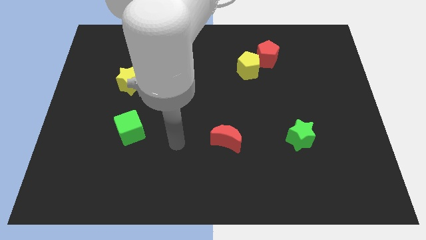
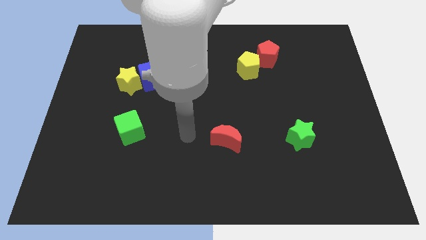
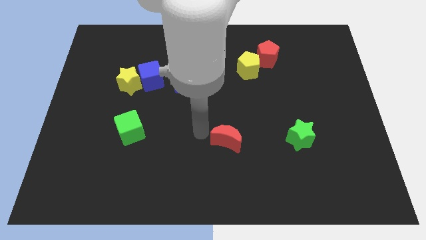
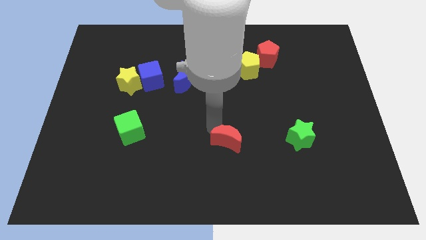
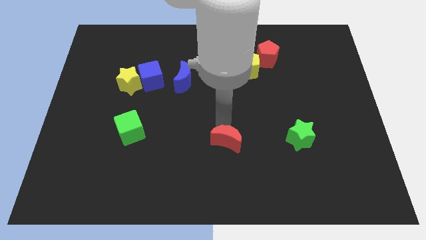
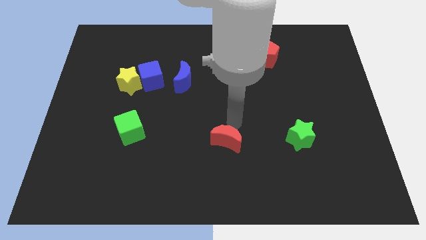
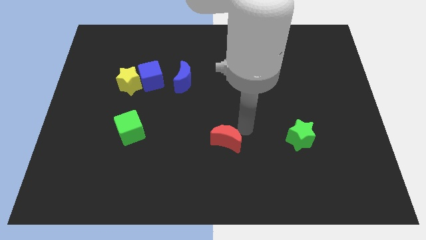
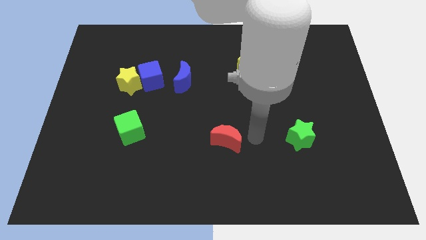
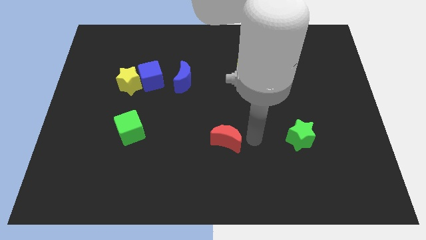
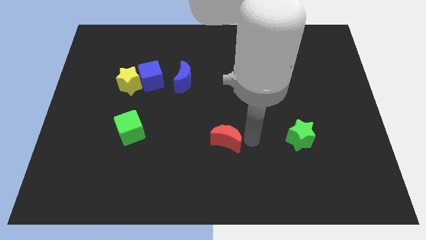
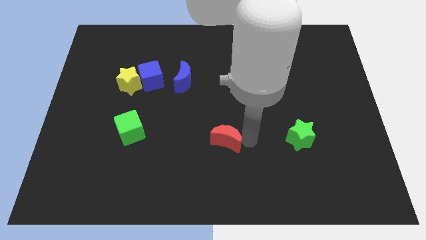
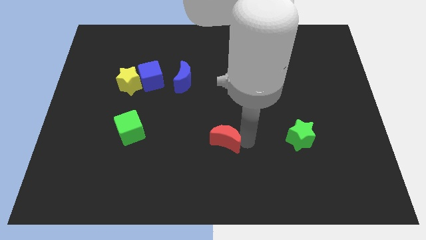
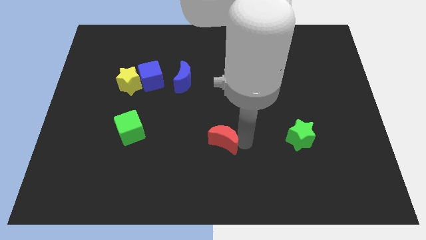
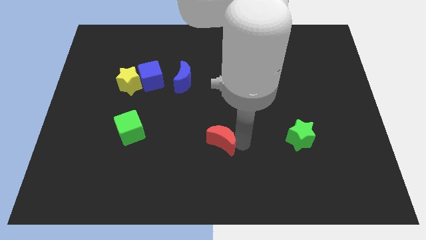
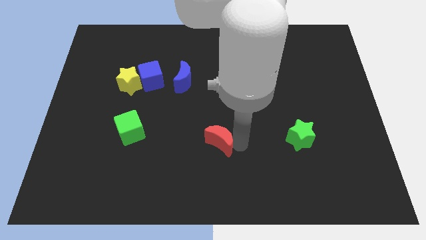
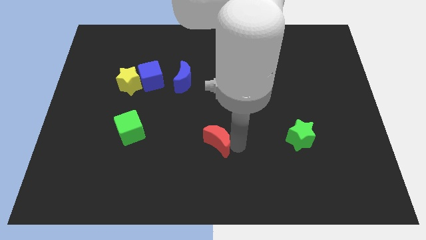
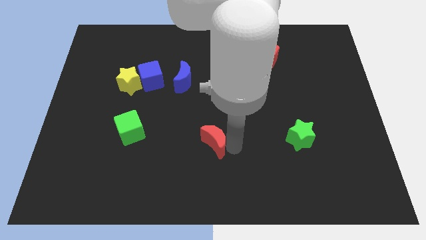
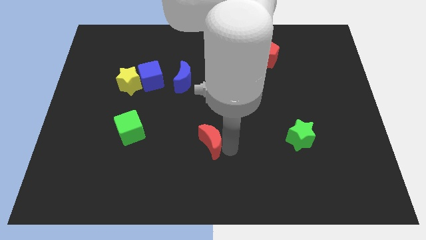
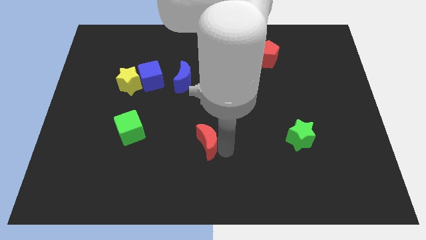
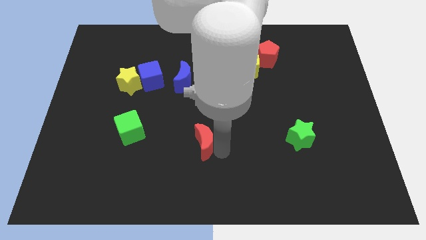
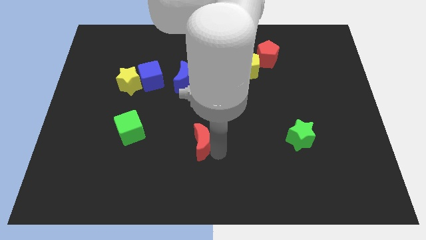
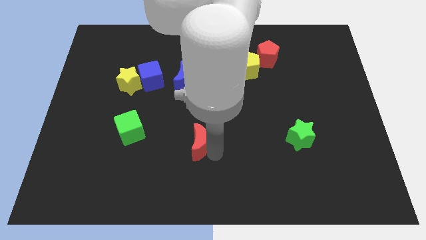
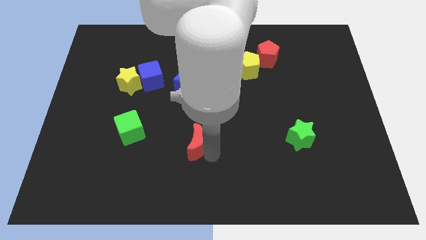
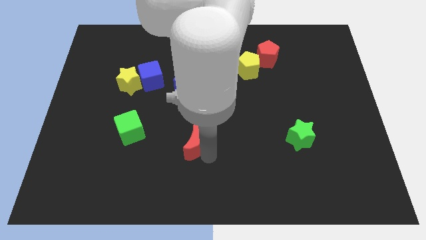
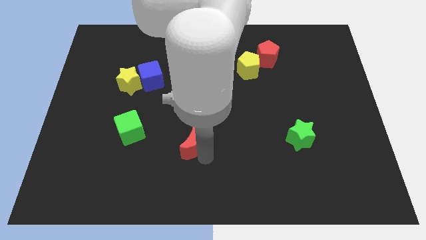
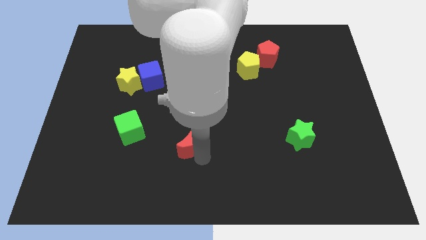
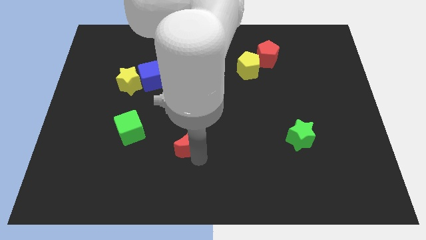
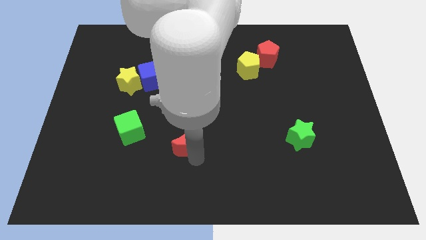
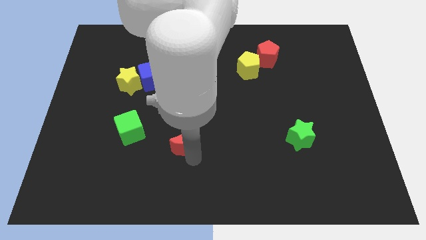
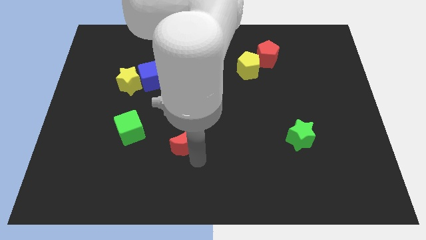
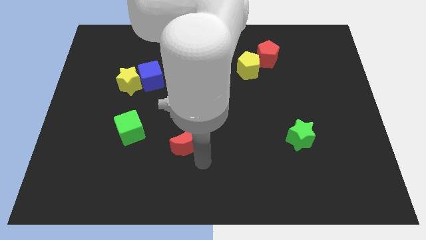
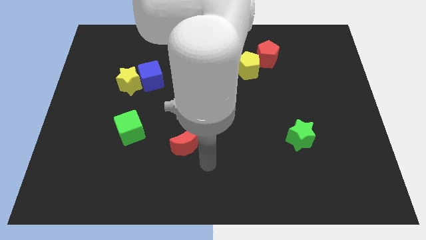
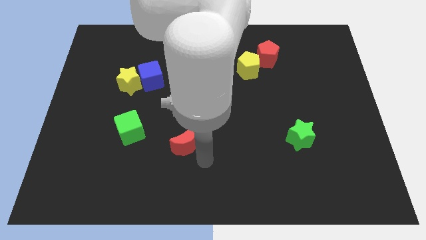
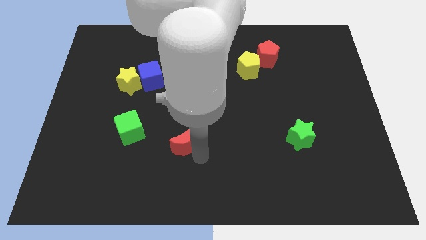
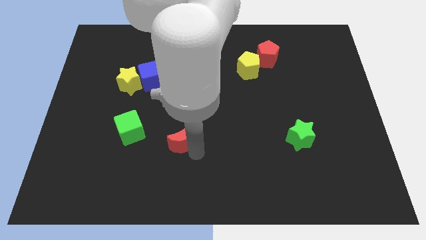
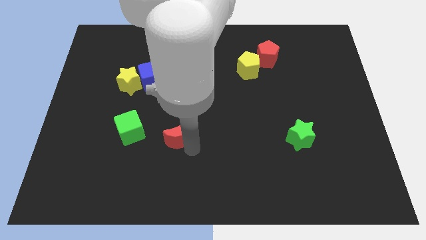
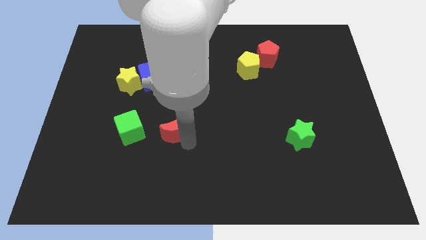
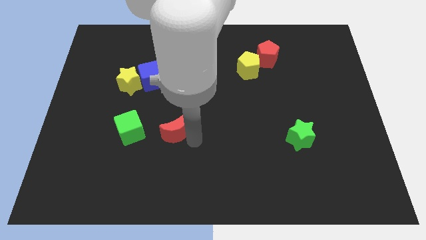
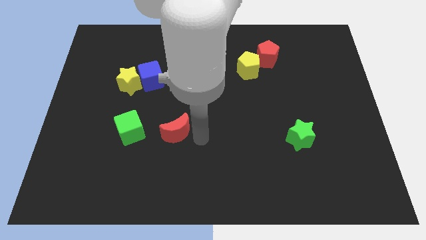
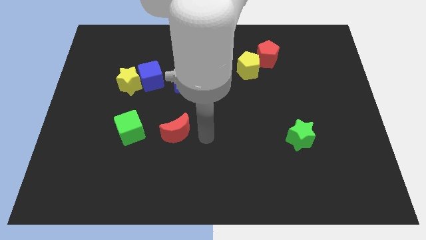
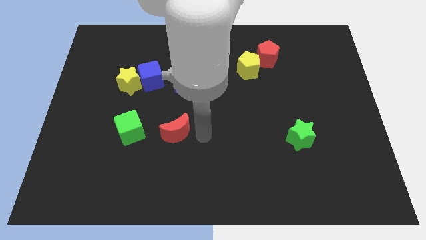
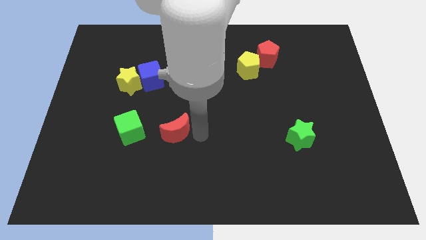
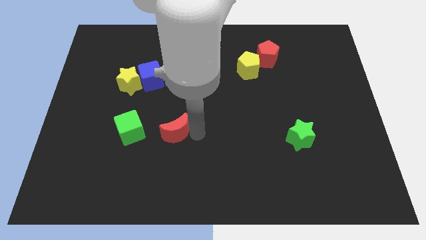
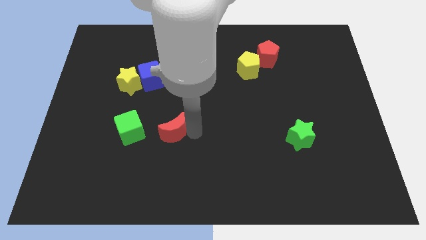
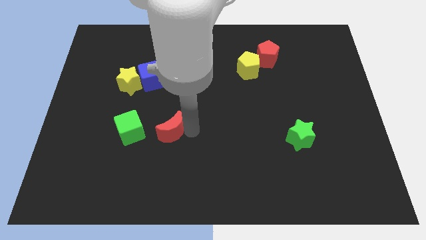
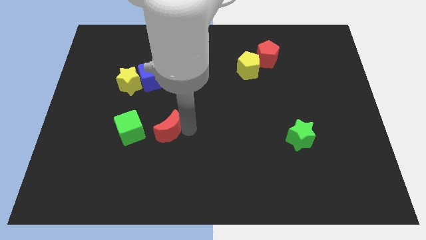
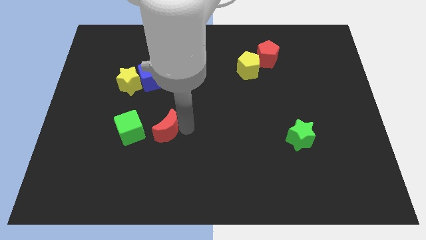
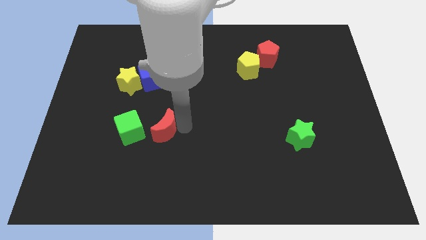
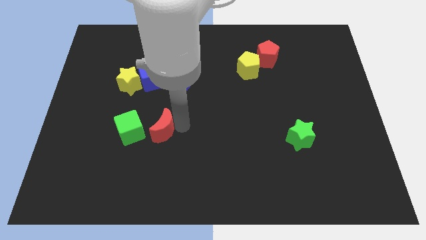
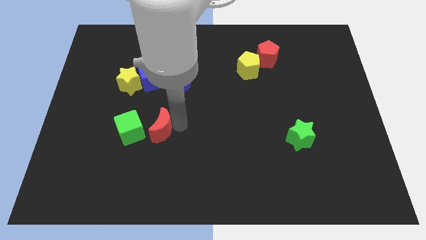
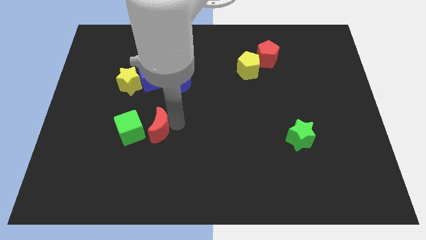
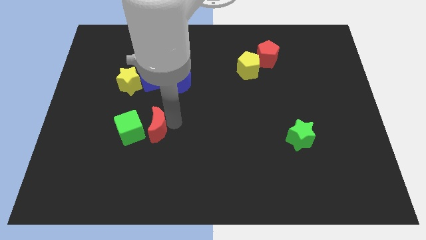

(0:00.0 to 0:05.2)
push the red moon towards the green cube

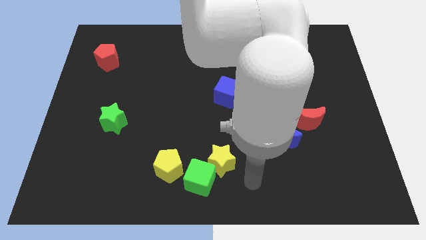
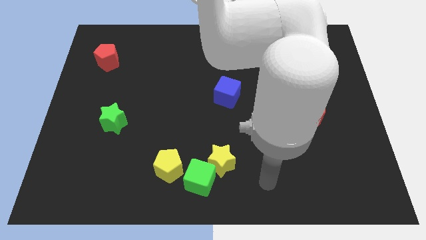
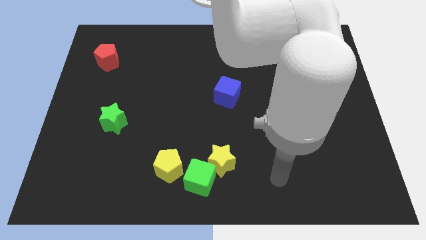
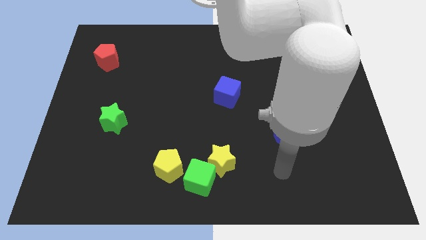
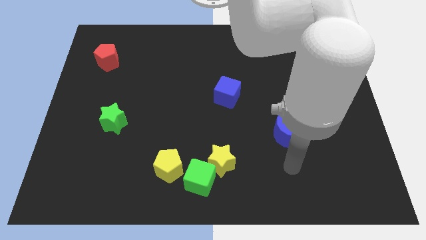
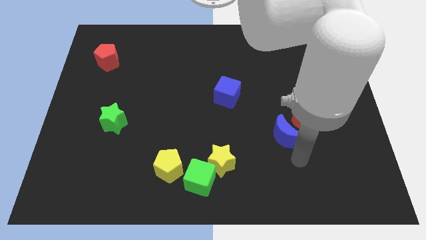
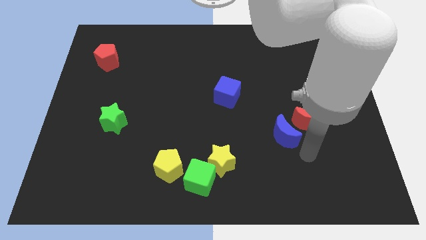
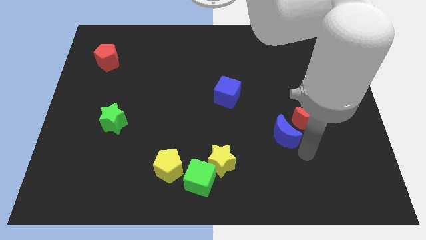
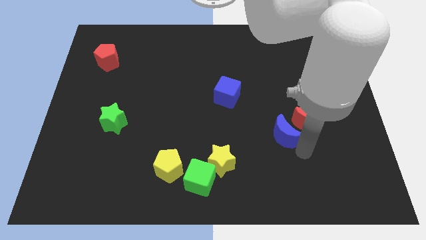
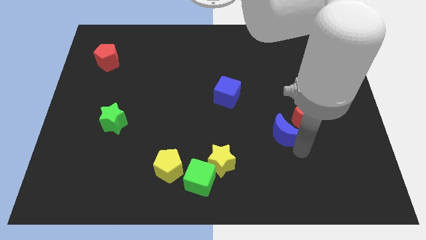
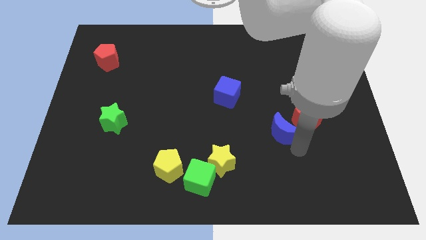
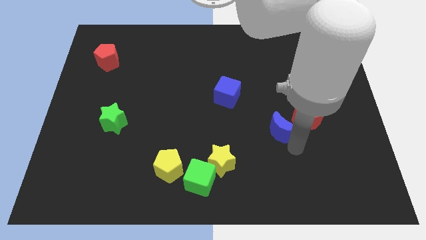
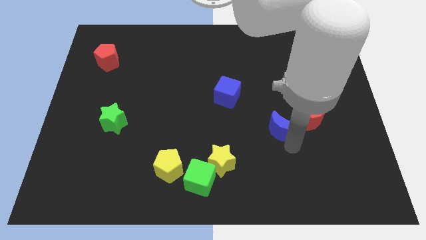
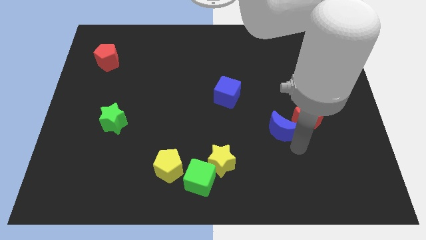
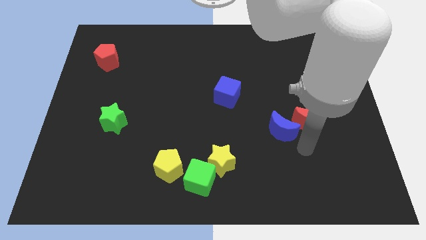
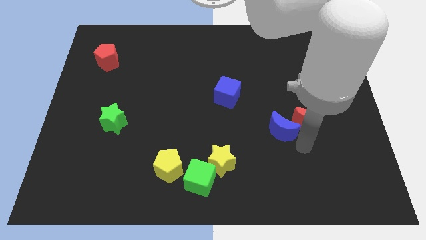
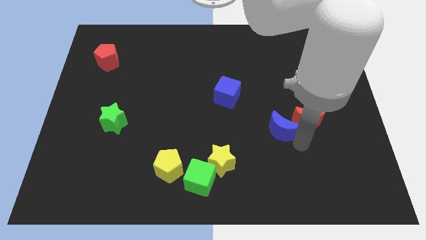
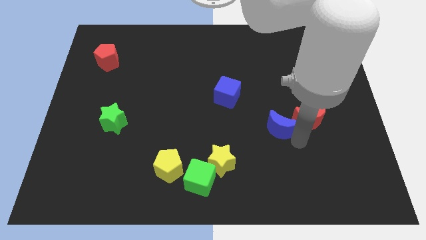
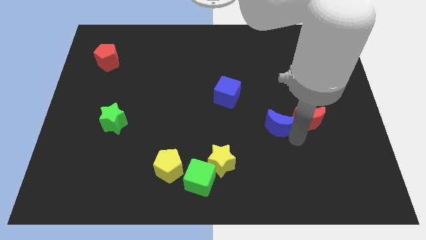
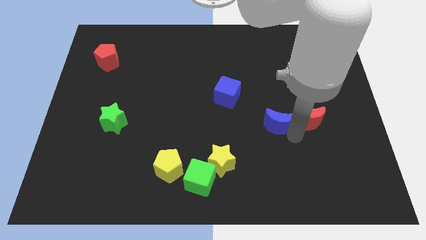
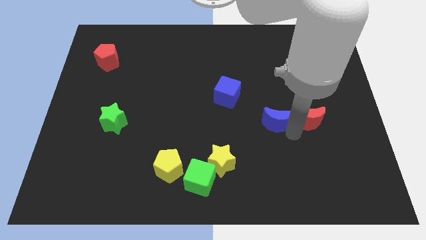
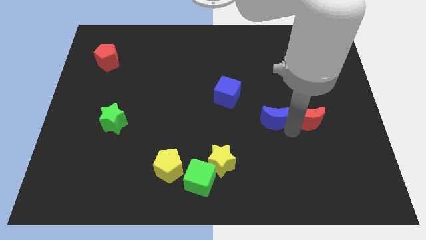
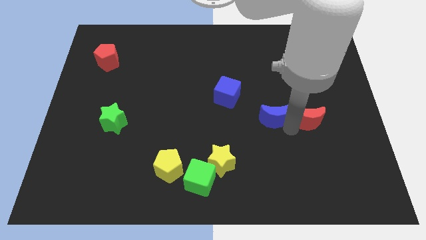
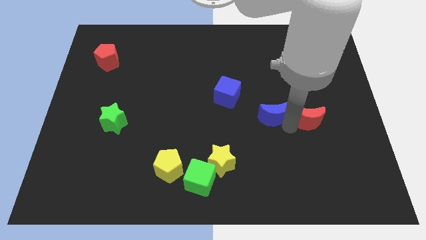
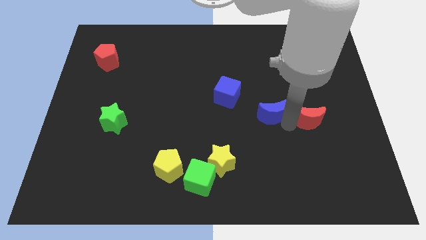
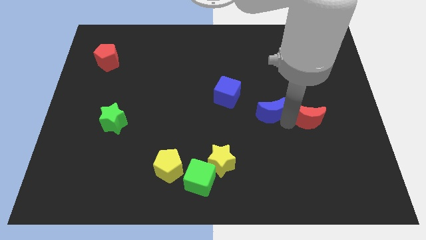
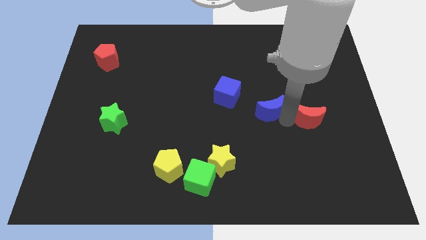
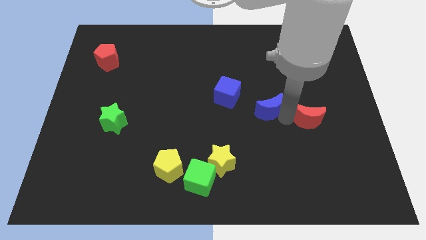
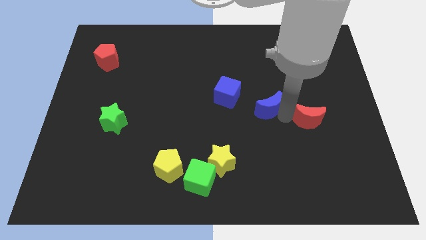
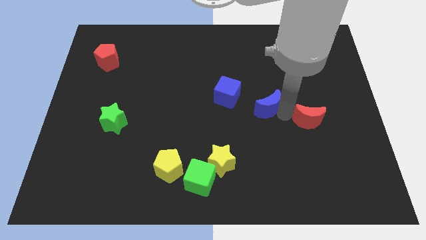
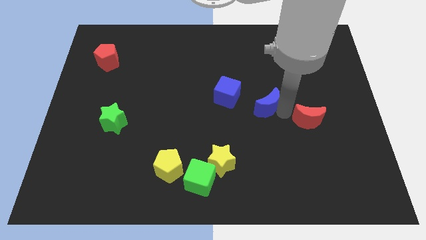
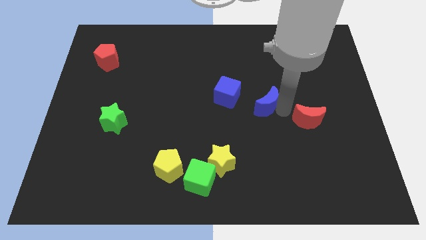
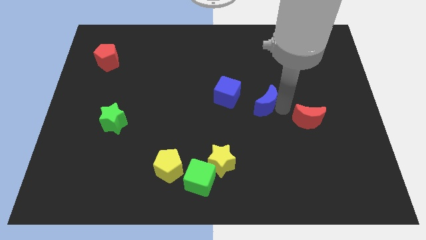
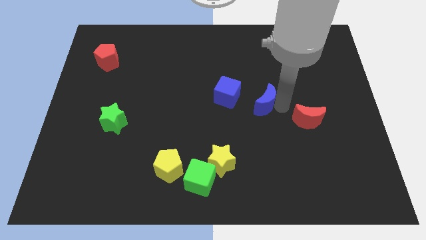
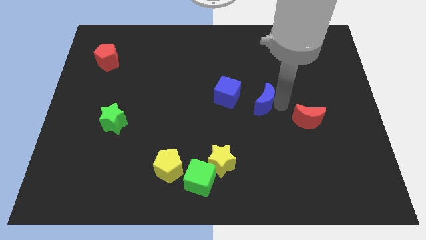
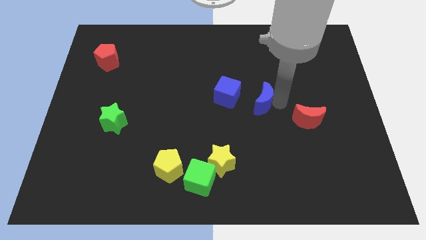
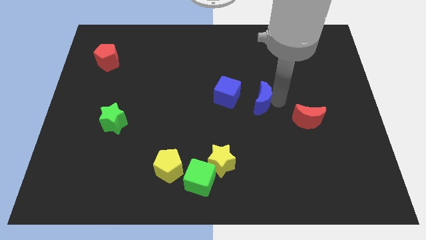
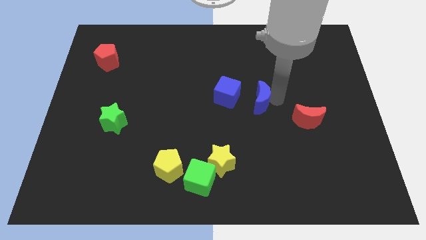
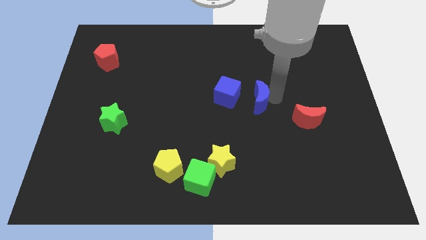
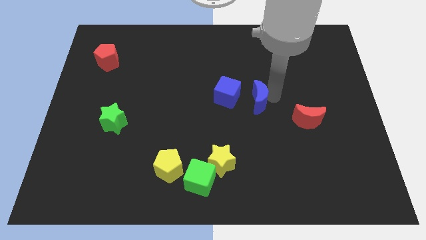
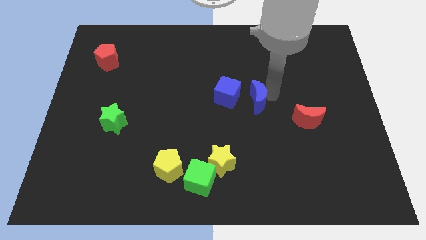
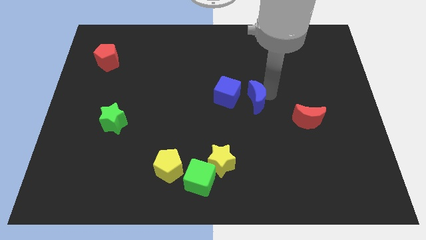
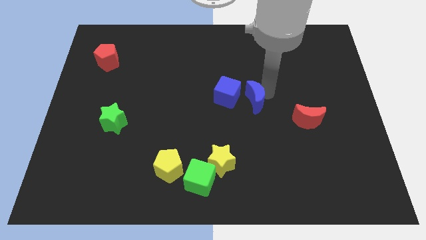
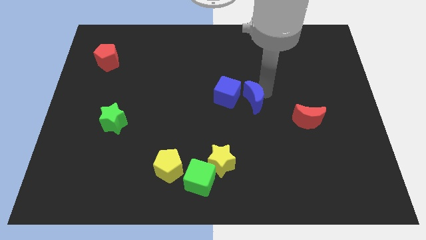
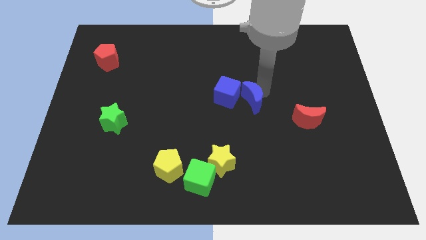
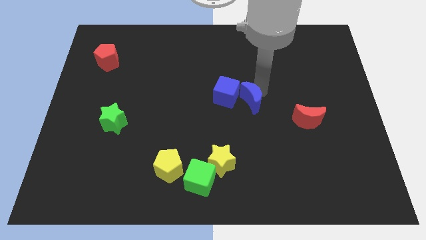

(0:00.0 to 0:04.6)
push the blue moon next to the blue cube
